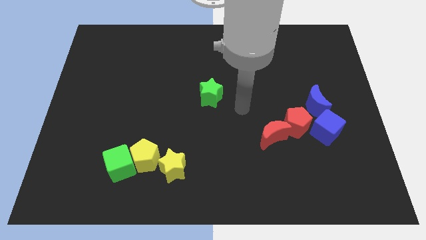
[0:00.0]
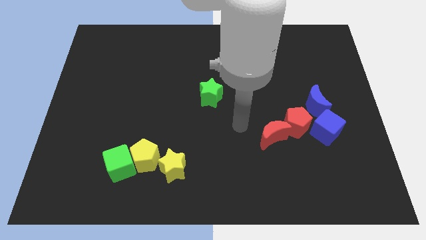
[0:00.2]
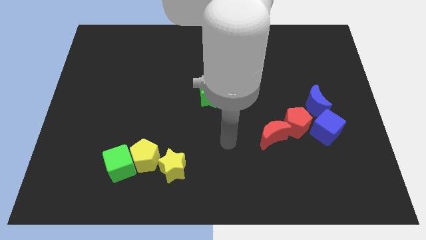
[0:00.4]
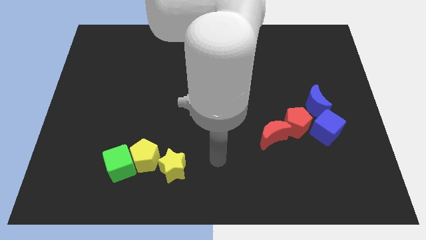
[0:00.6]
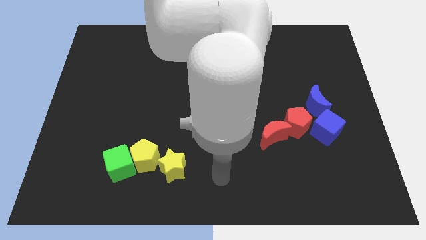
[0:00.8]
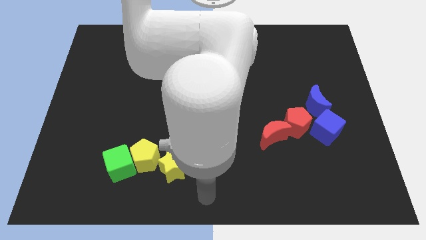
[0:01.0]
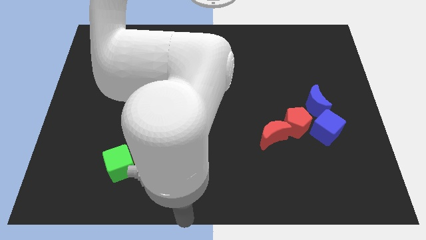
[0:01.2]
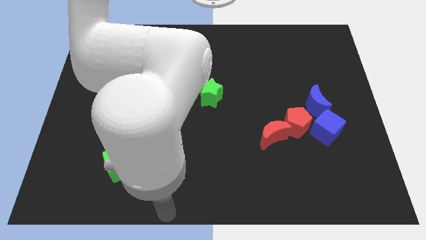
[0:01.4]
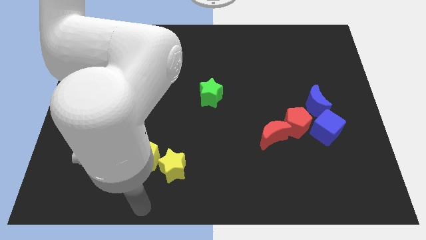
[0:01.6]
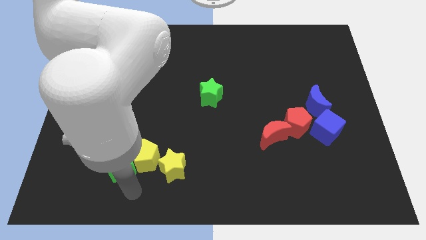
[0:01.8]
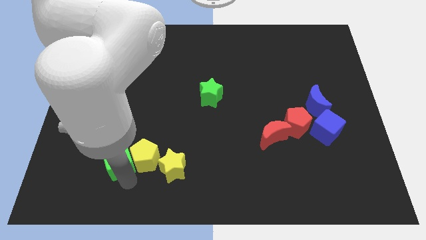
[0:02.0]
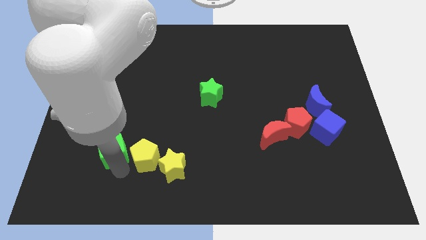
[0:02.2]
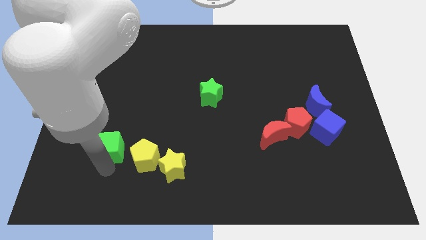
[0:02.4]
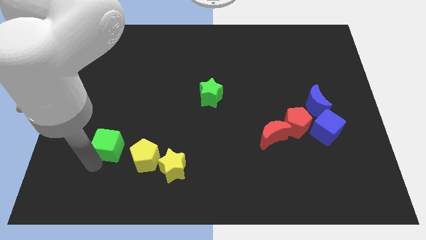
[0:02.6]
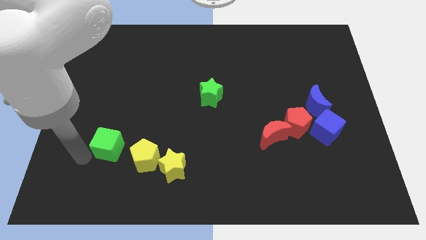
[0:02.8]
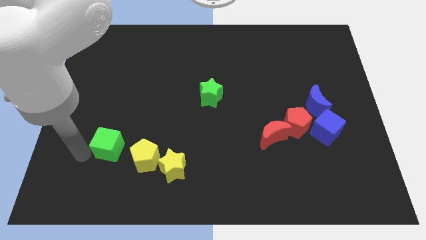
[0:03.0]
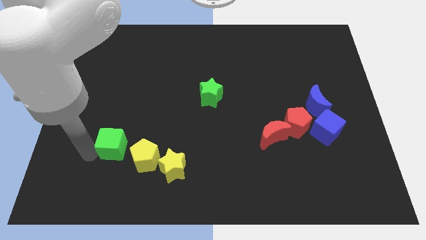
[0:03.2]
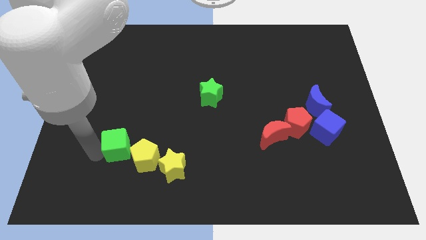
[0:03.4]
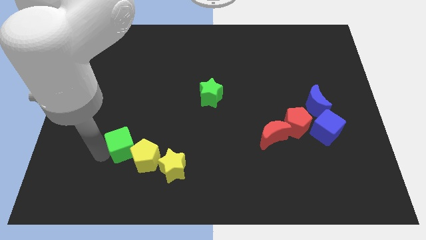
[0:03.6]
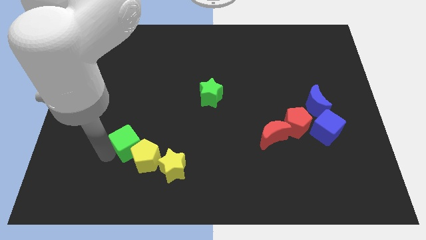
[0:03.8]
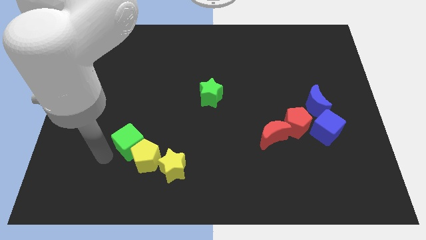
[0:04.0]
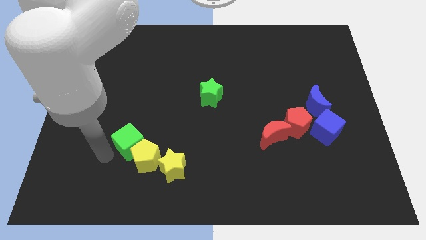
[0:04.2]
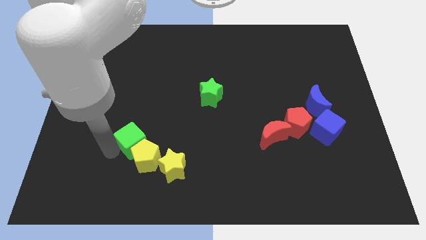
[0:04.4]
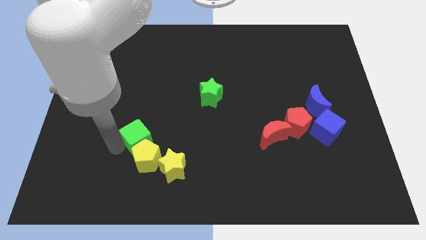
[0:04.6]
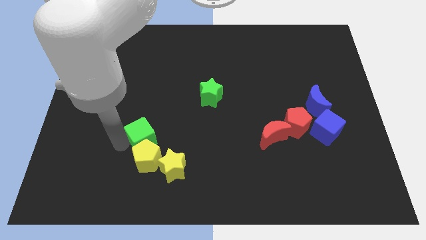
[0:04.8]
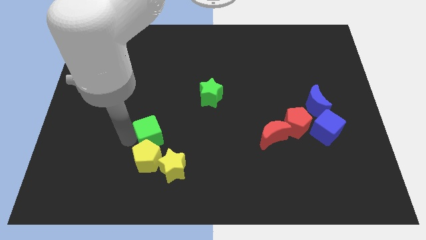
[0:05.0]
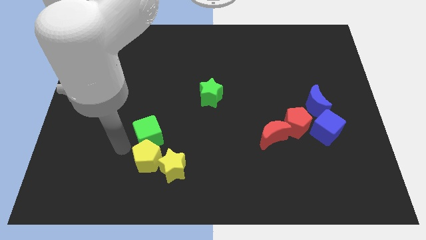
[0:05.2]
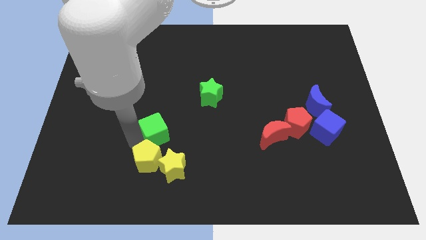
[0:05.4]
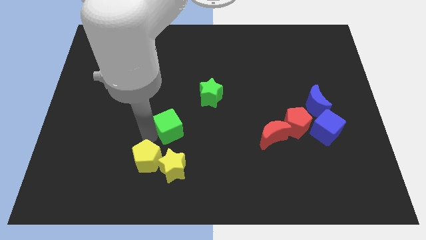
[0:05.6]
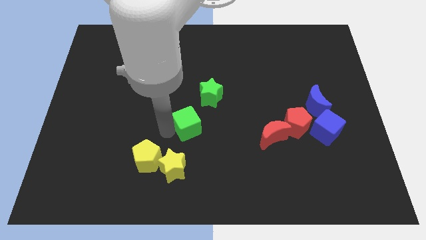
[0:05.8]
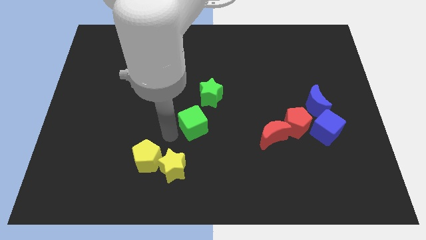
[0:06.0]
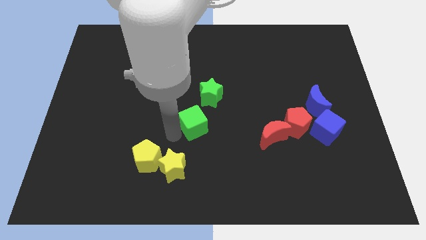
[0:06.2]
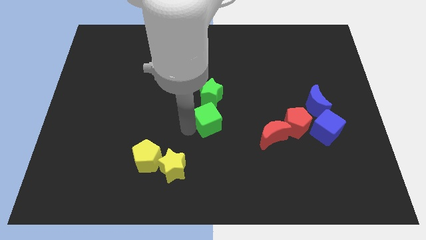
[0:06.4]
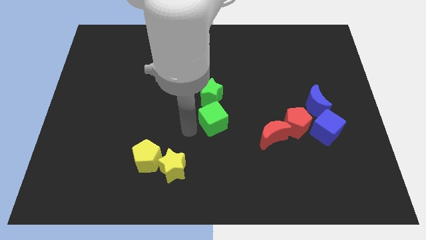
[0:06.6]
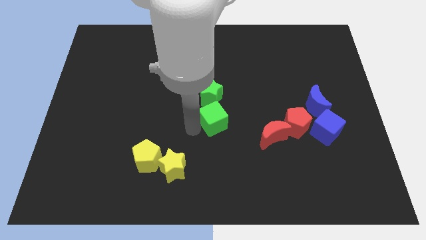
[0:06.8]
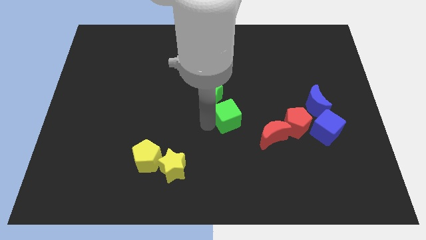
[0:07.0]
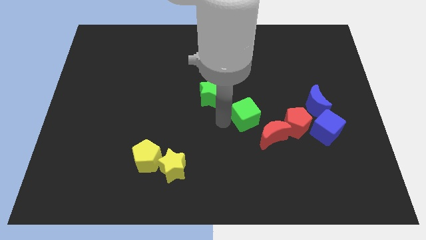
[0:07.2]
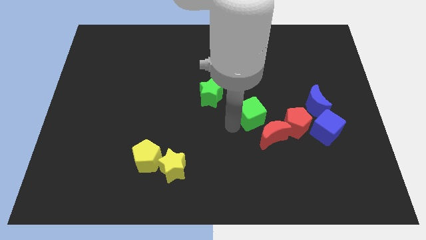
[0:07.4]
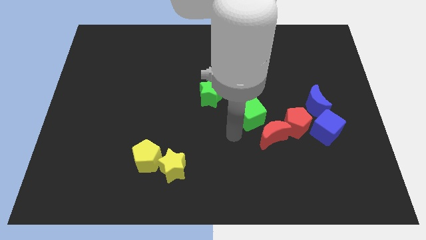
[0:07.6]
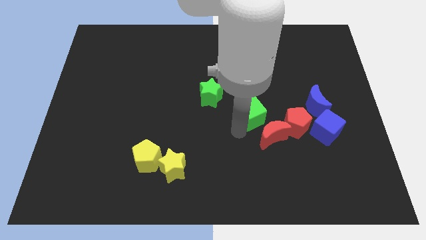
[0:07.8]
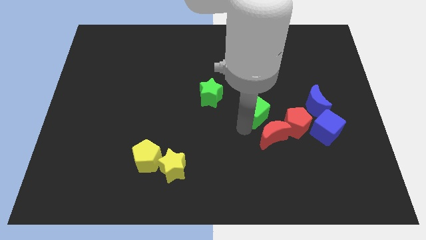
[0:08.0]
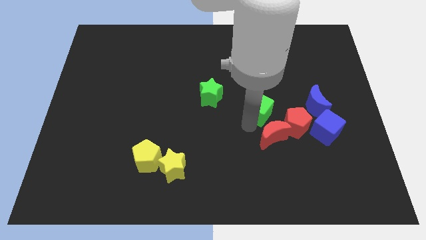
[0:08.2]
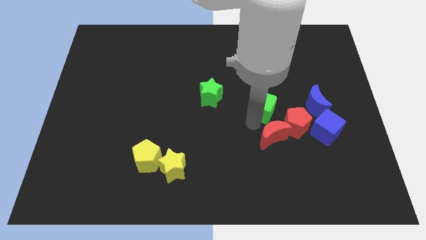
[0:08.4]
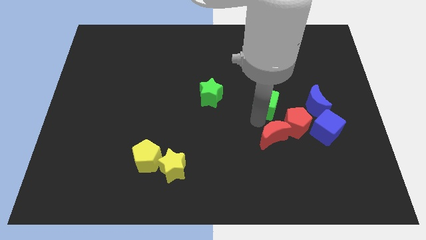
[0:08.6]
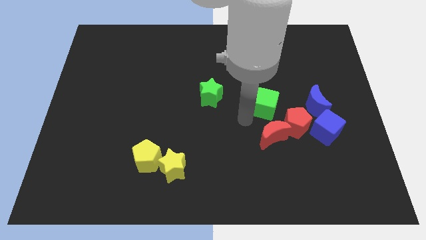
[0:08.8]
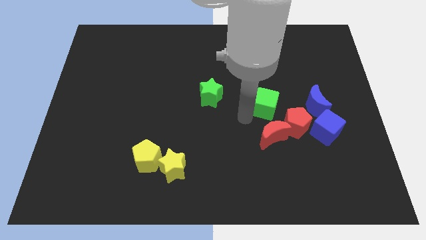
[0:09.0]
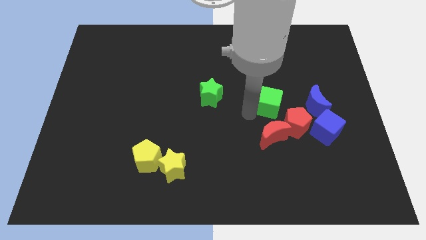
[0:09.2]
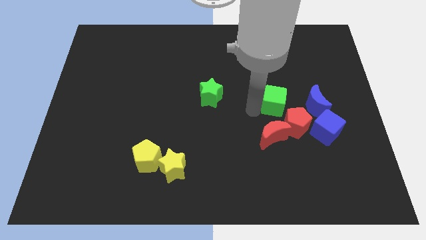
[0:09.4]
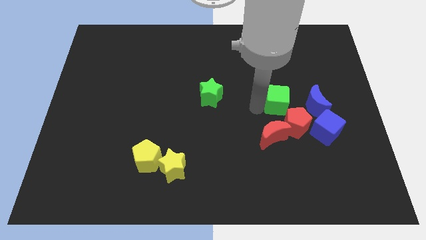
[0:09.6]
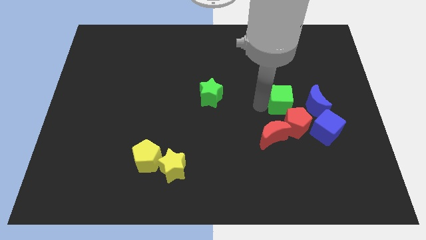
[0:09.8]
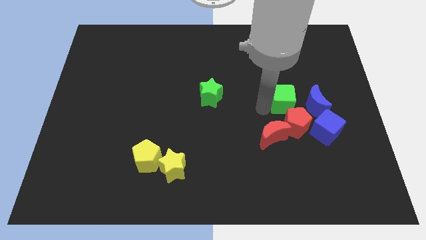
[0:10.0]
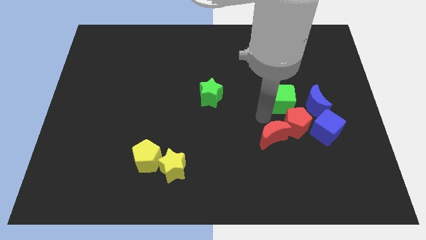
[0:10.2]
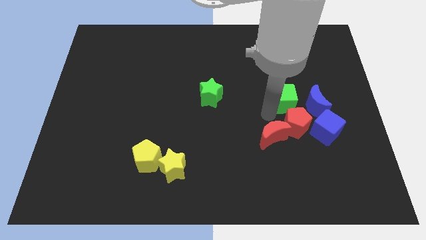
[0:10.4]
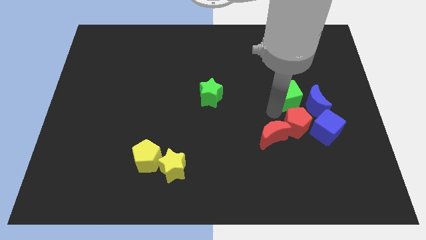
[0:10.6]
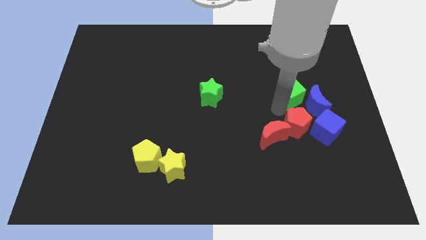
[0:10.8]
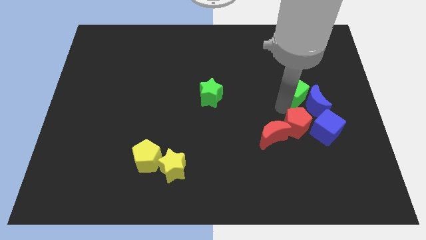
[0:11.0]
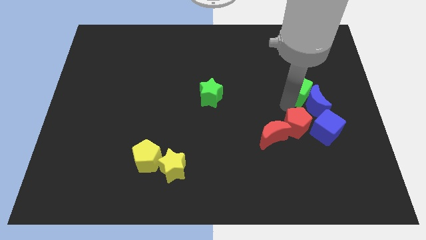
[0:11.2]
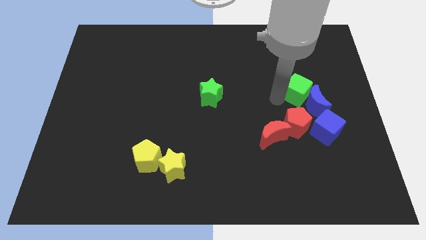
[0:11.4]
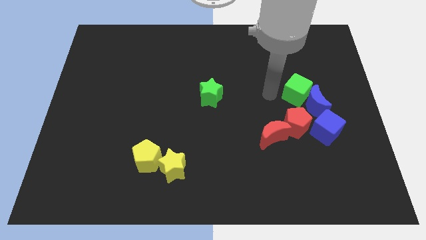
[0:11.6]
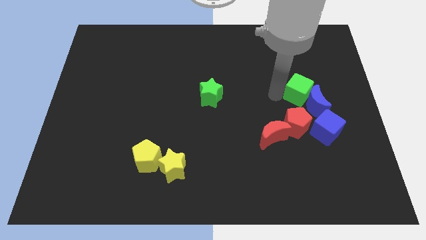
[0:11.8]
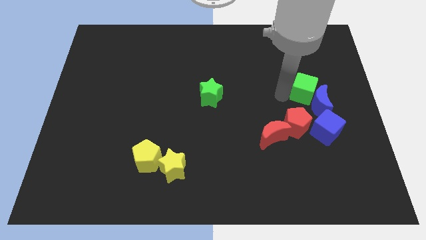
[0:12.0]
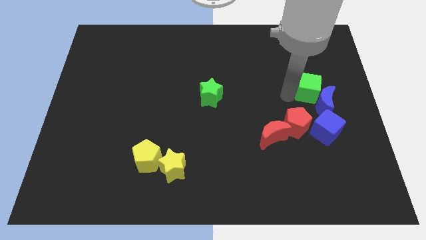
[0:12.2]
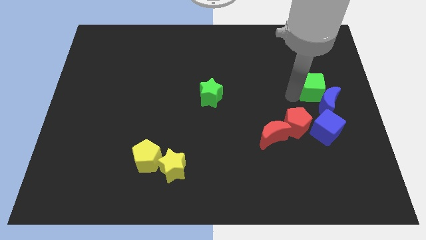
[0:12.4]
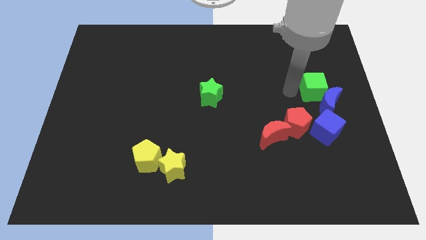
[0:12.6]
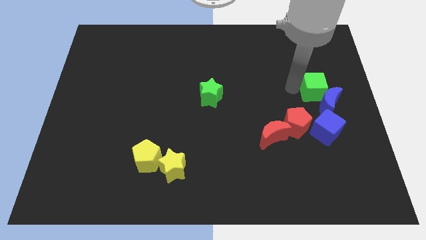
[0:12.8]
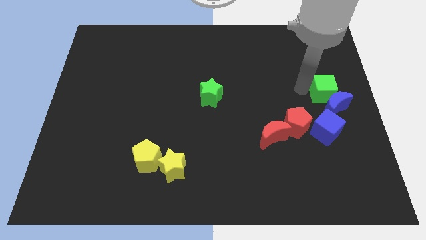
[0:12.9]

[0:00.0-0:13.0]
push the green cube to the right side of the board
